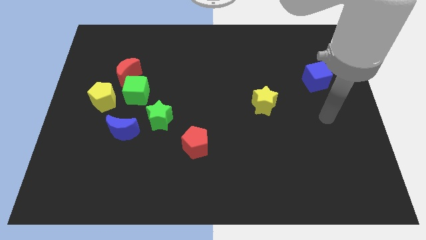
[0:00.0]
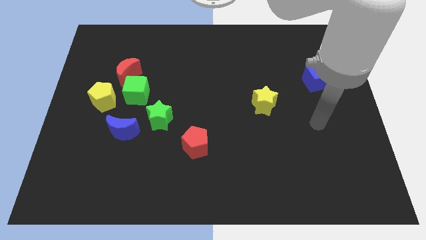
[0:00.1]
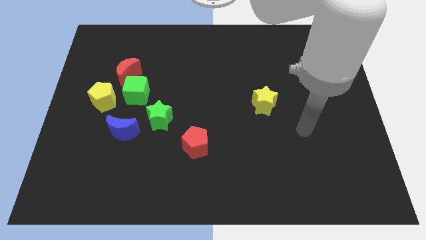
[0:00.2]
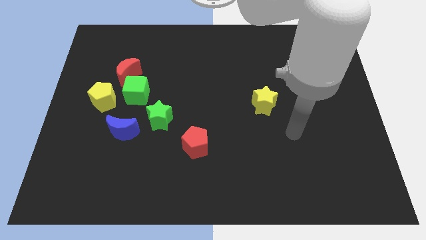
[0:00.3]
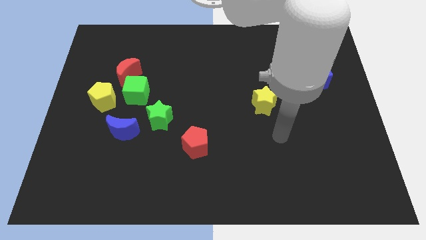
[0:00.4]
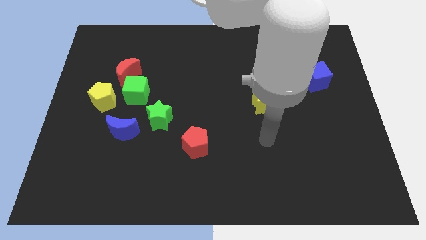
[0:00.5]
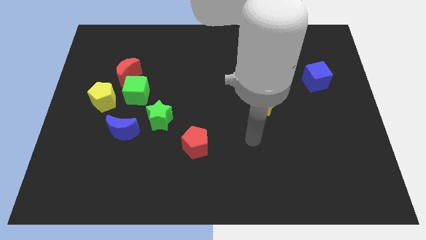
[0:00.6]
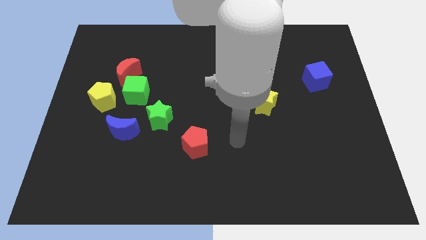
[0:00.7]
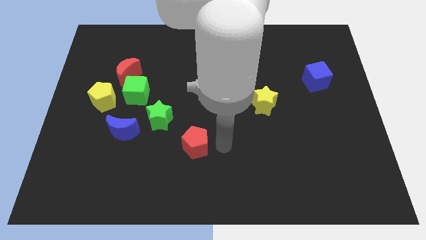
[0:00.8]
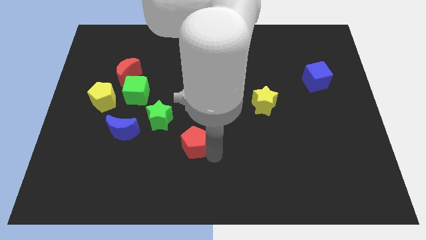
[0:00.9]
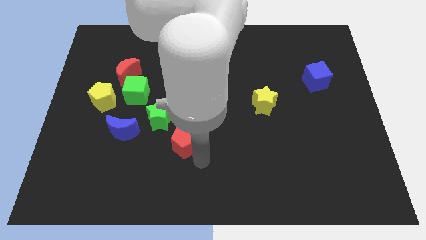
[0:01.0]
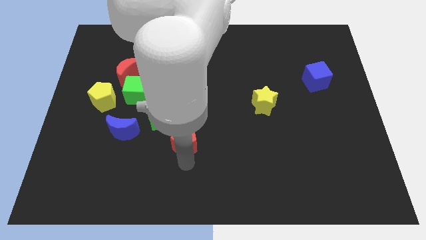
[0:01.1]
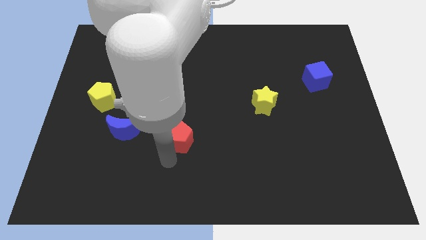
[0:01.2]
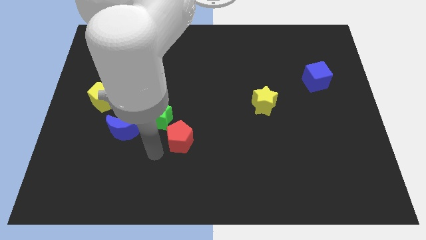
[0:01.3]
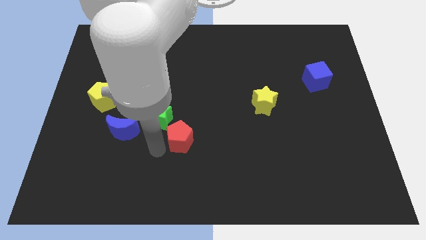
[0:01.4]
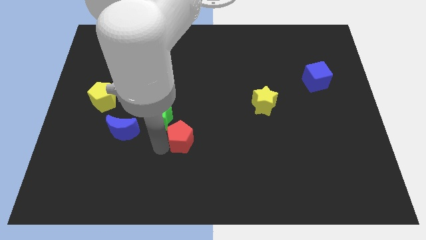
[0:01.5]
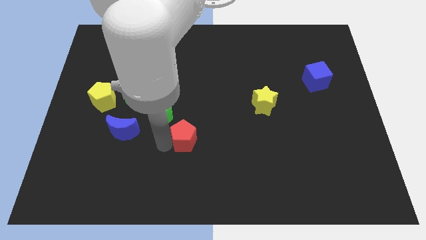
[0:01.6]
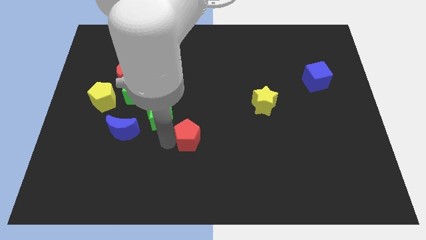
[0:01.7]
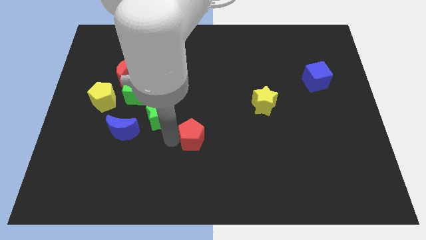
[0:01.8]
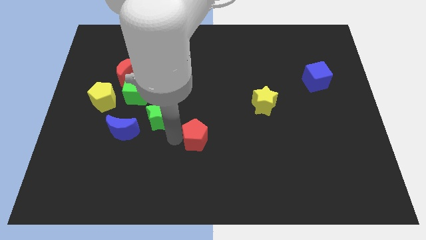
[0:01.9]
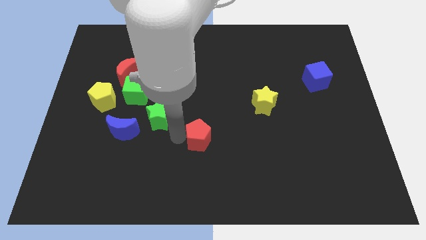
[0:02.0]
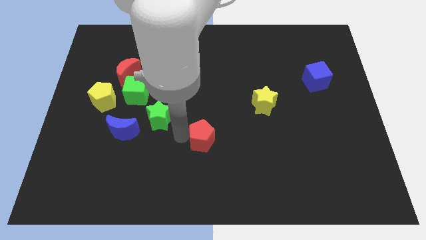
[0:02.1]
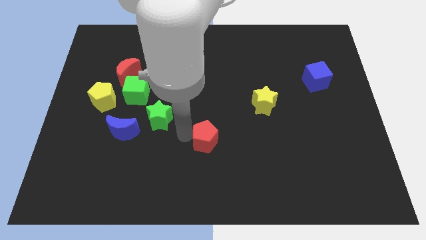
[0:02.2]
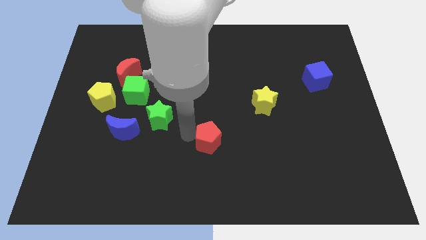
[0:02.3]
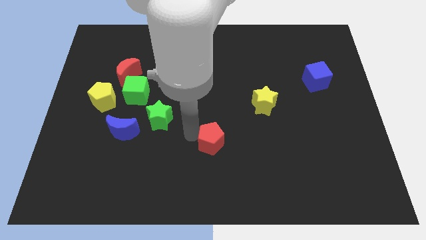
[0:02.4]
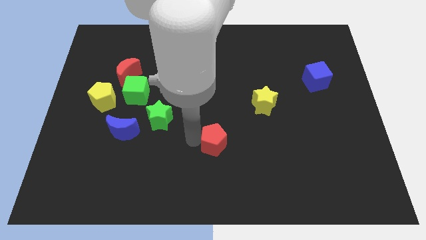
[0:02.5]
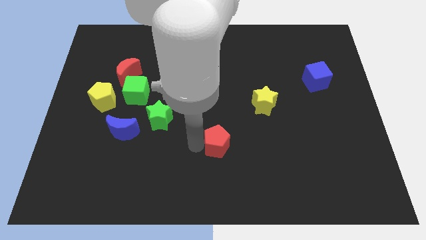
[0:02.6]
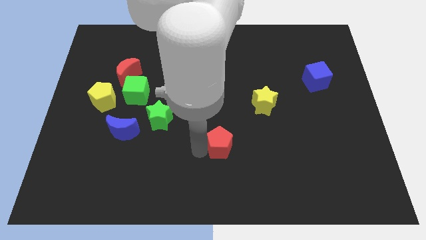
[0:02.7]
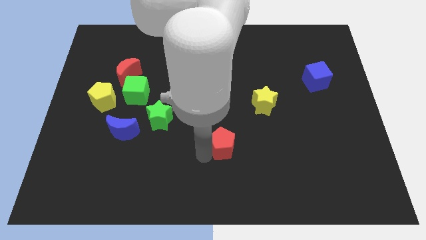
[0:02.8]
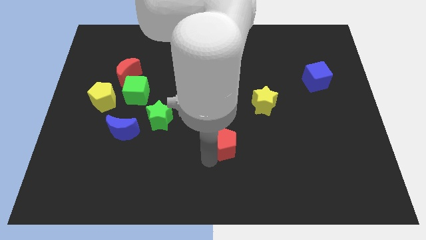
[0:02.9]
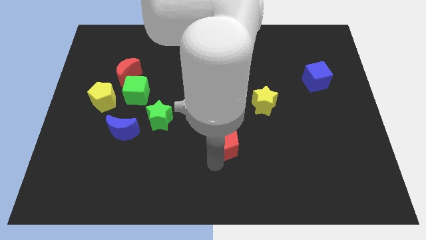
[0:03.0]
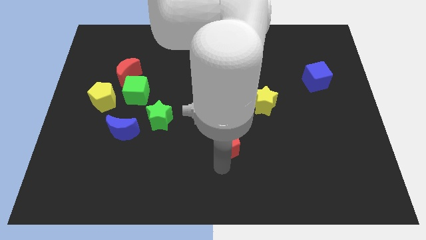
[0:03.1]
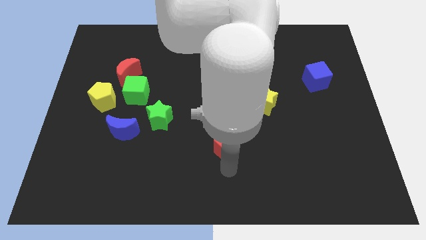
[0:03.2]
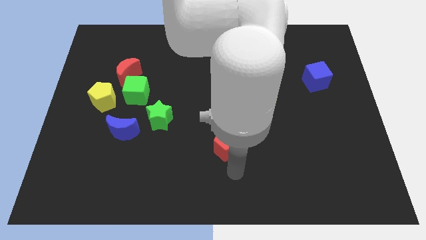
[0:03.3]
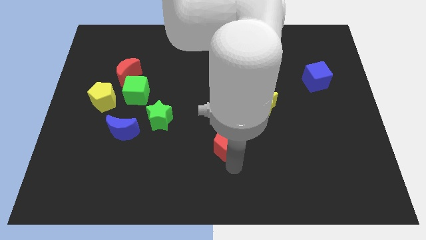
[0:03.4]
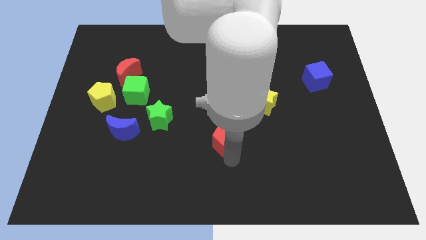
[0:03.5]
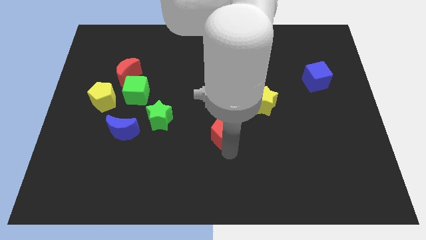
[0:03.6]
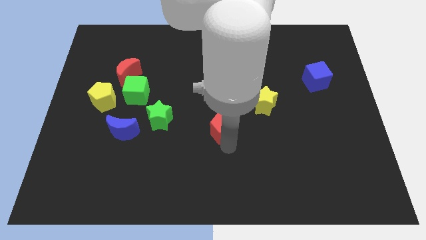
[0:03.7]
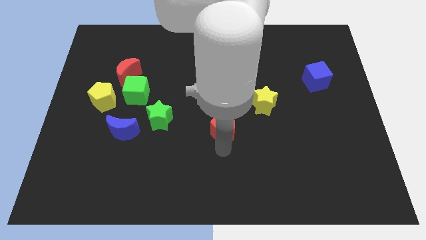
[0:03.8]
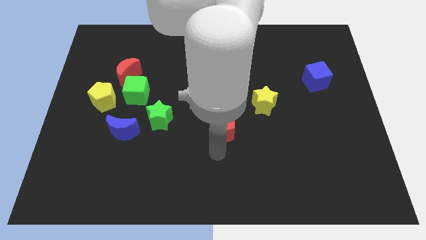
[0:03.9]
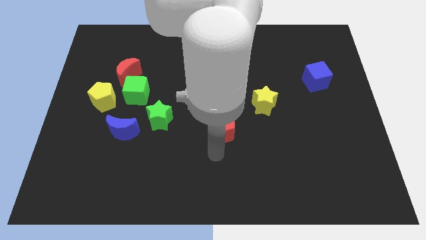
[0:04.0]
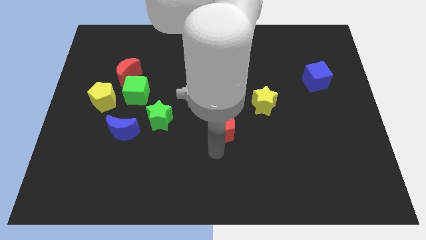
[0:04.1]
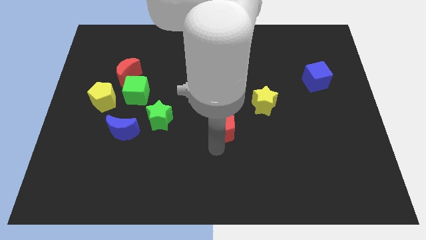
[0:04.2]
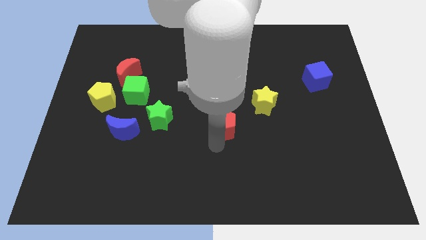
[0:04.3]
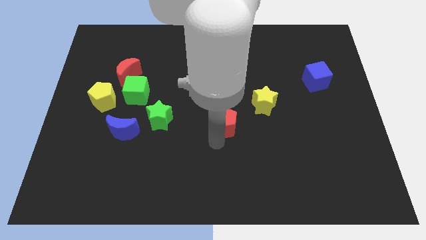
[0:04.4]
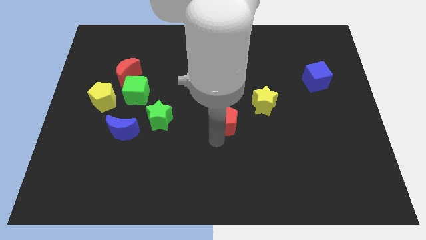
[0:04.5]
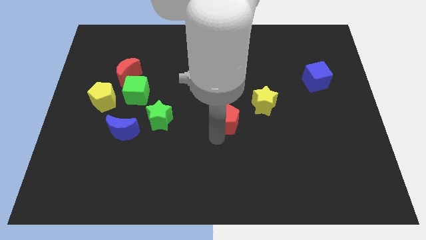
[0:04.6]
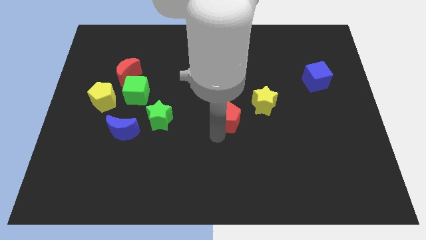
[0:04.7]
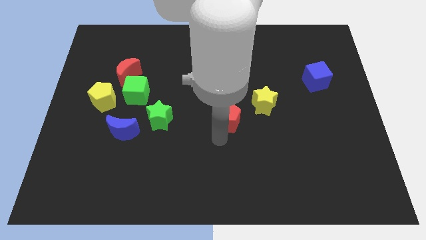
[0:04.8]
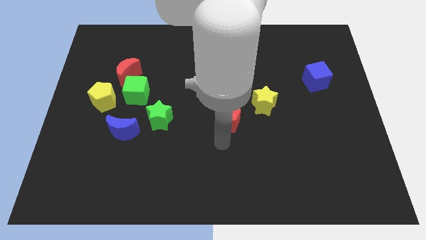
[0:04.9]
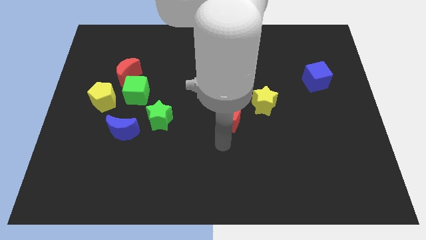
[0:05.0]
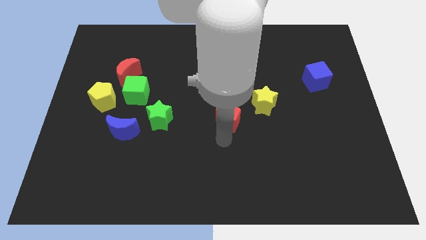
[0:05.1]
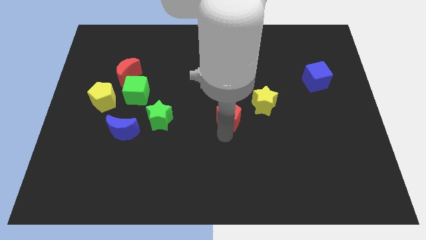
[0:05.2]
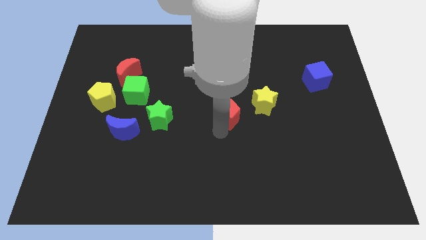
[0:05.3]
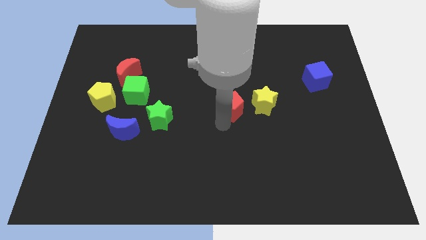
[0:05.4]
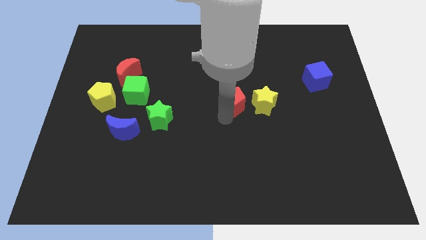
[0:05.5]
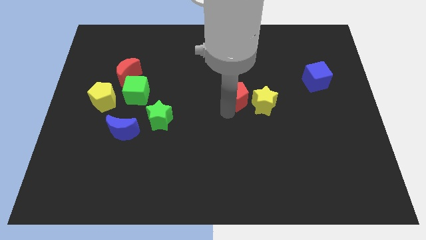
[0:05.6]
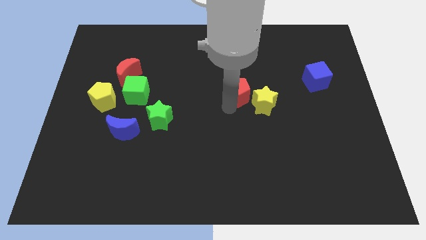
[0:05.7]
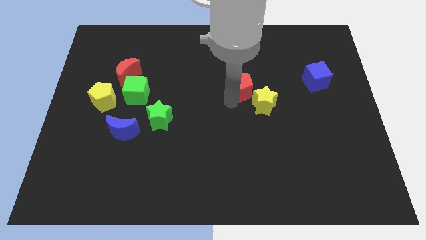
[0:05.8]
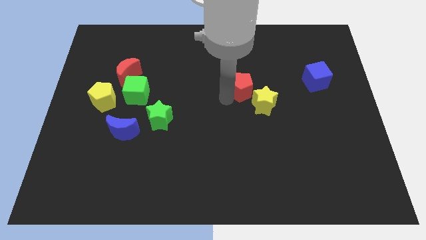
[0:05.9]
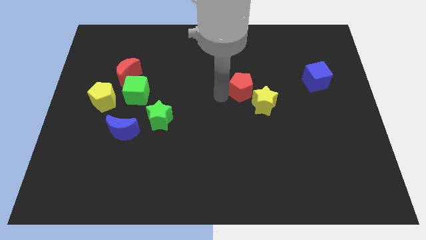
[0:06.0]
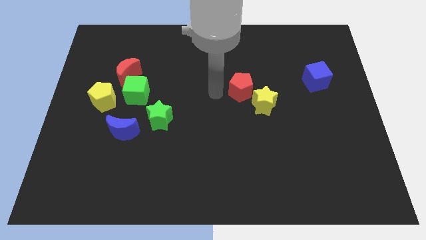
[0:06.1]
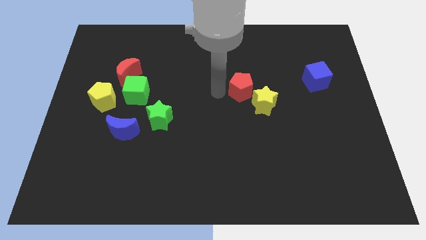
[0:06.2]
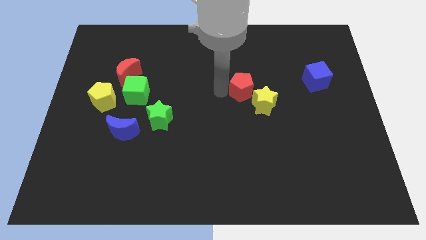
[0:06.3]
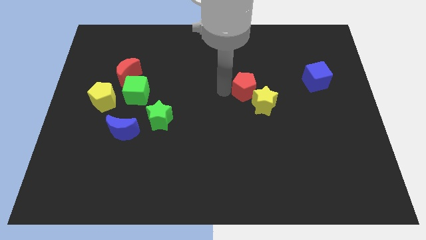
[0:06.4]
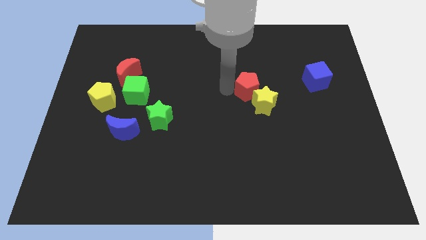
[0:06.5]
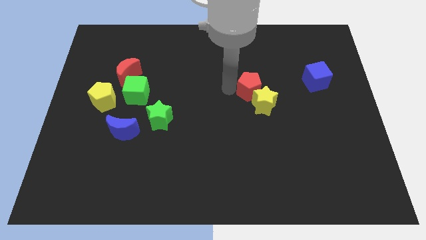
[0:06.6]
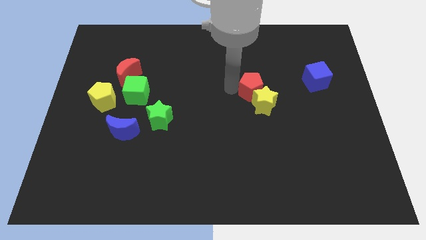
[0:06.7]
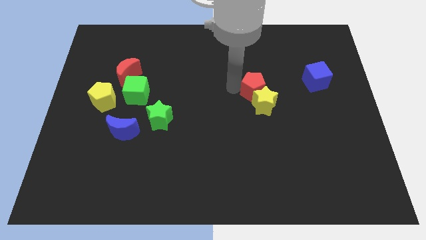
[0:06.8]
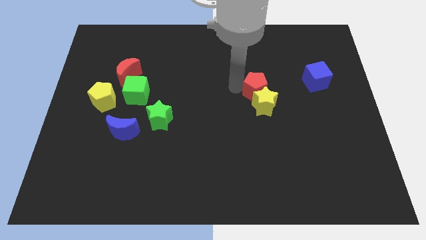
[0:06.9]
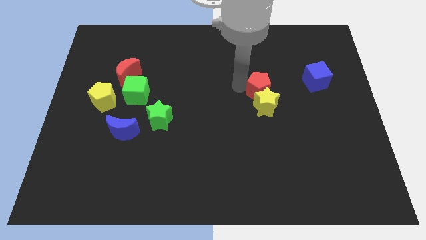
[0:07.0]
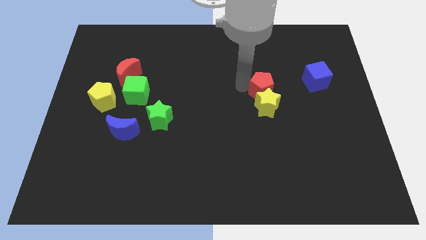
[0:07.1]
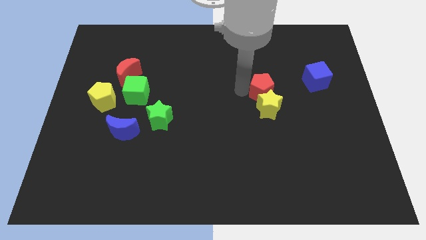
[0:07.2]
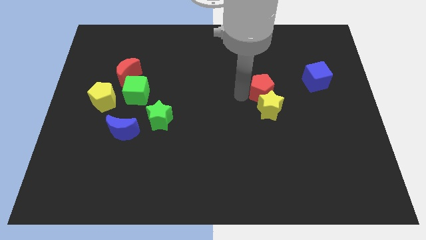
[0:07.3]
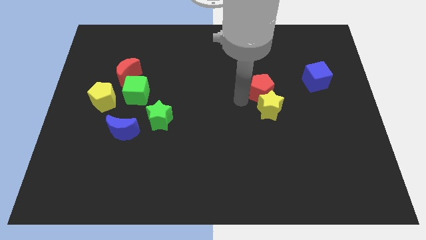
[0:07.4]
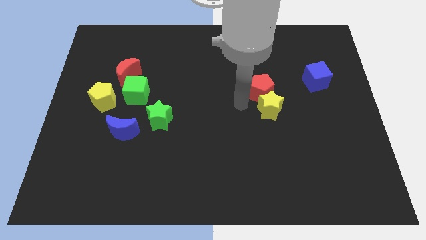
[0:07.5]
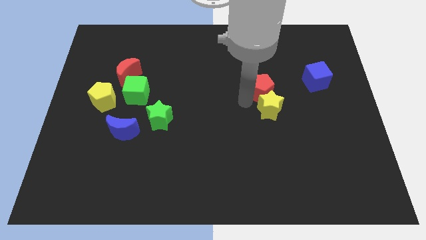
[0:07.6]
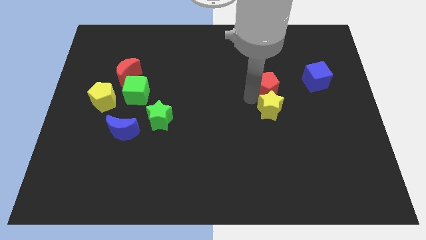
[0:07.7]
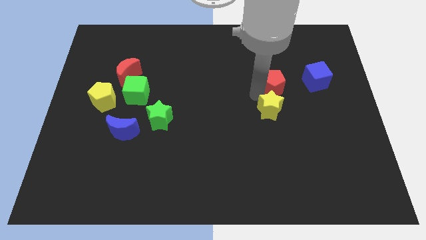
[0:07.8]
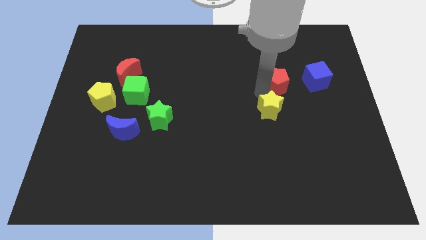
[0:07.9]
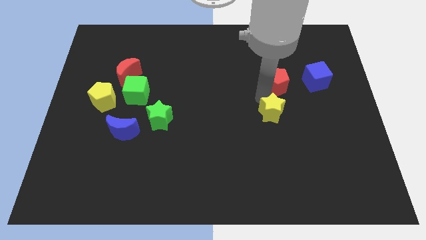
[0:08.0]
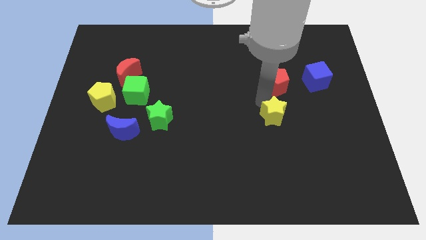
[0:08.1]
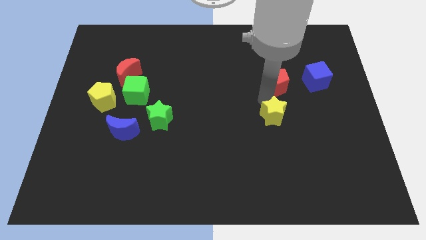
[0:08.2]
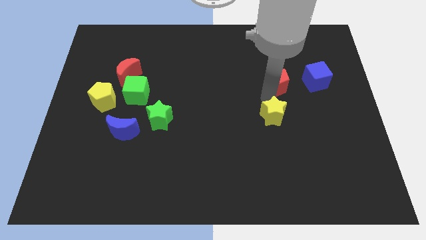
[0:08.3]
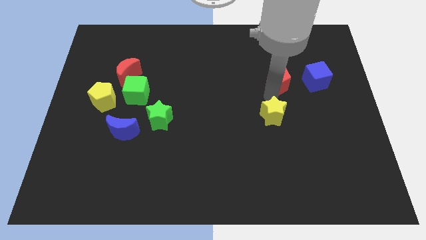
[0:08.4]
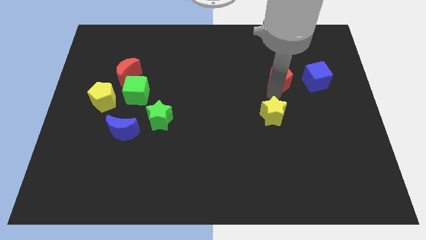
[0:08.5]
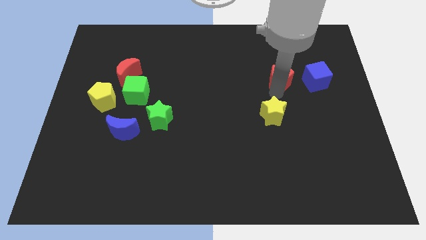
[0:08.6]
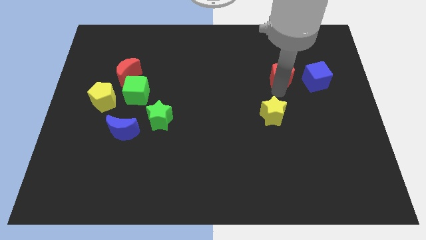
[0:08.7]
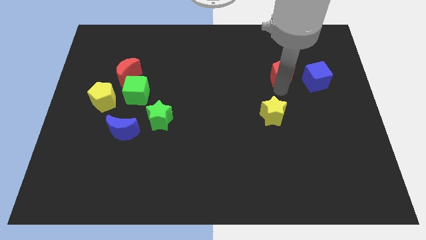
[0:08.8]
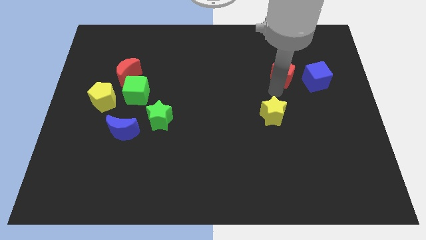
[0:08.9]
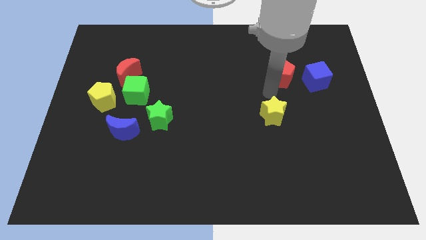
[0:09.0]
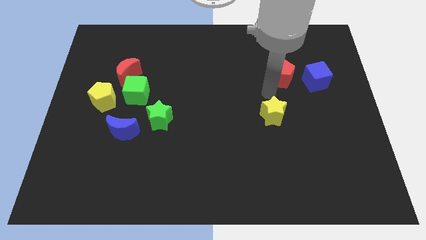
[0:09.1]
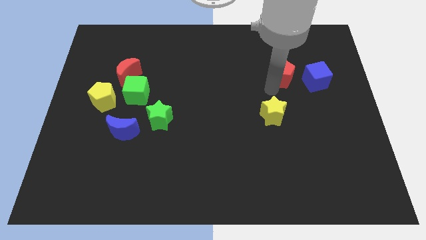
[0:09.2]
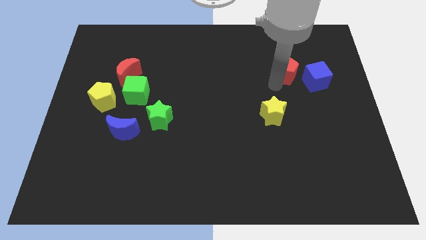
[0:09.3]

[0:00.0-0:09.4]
put the red pentagon to the top left side of the blue cube
